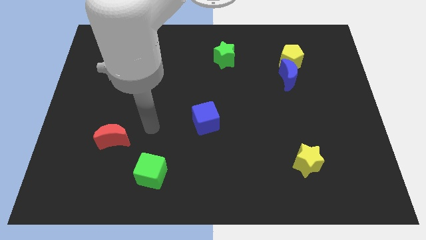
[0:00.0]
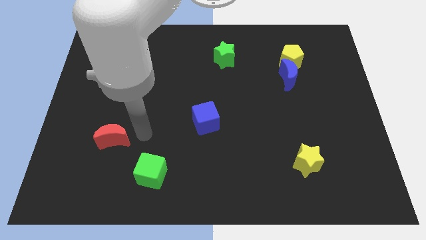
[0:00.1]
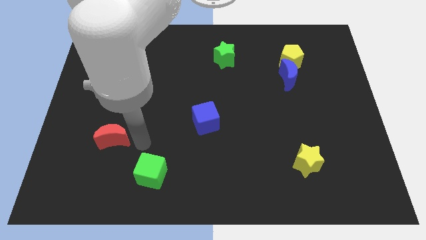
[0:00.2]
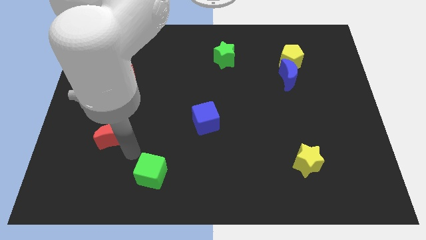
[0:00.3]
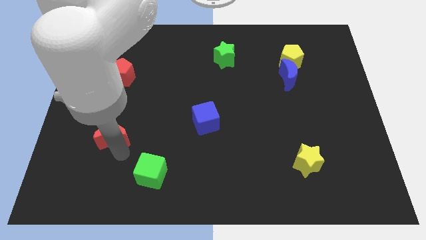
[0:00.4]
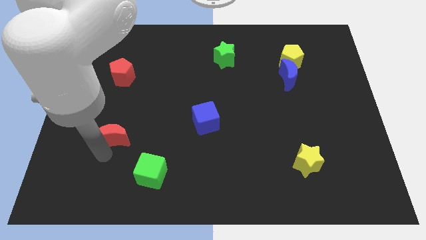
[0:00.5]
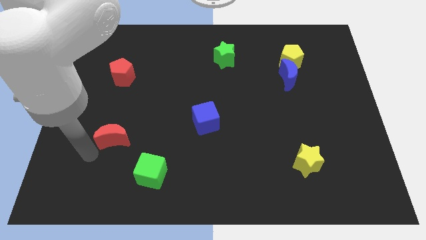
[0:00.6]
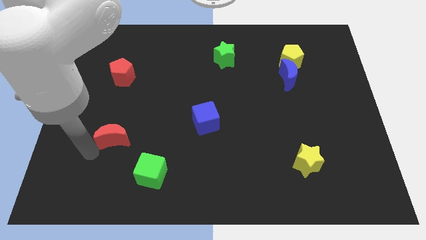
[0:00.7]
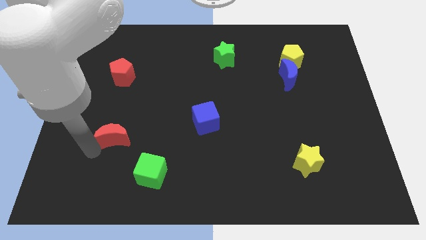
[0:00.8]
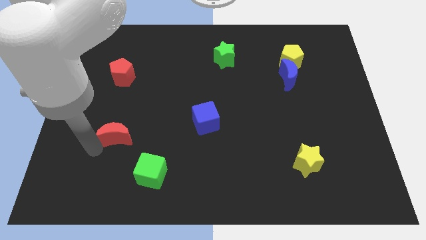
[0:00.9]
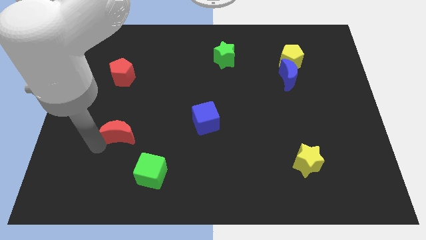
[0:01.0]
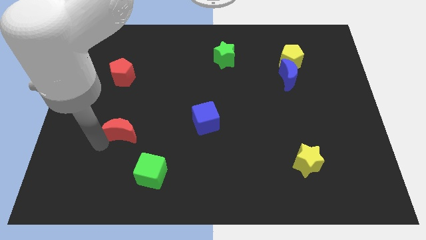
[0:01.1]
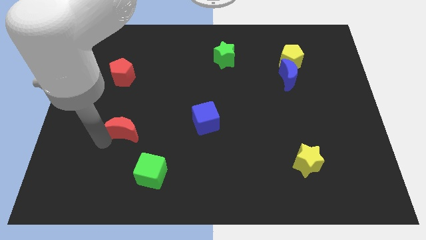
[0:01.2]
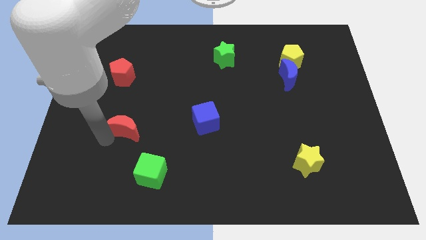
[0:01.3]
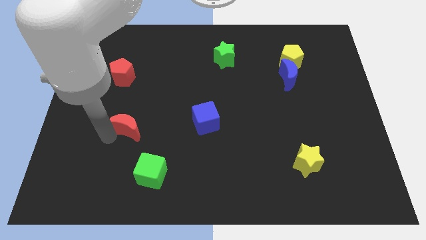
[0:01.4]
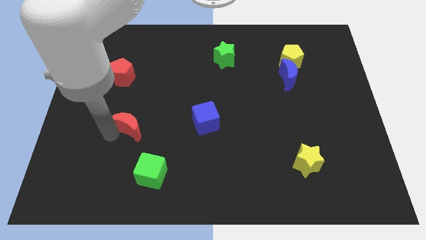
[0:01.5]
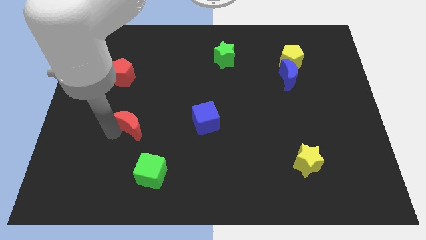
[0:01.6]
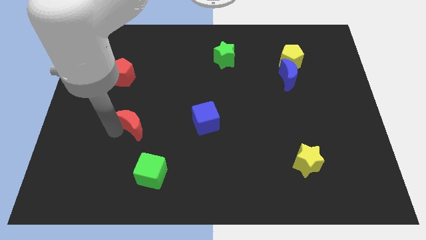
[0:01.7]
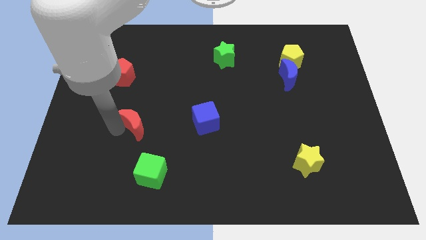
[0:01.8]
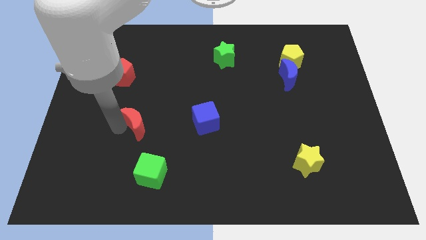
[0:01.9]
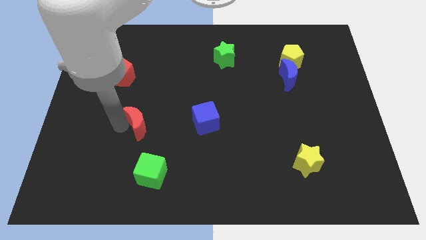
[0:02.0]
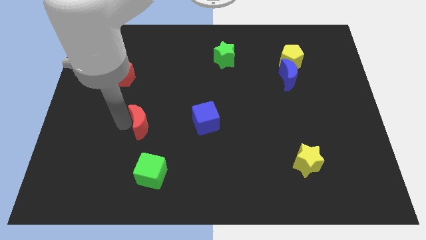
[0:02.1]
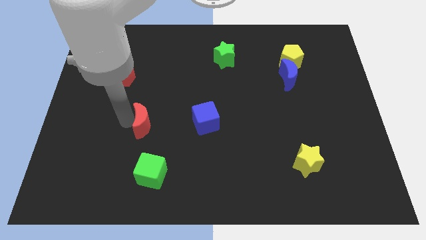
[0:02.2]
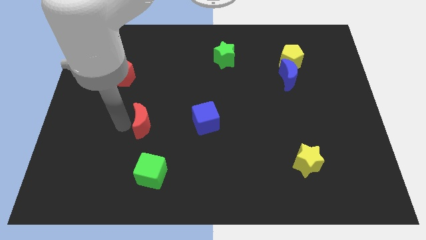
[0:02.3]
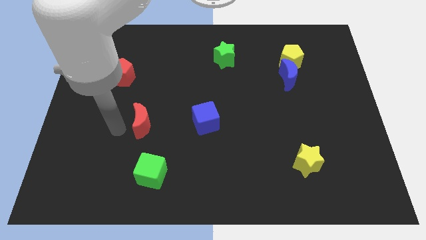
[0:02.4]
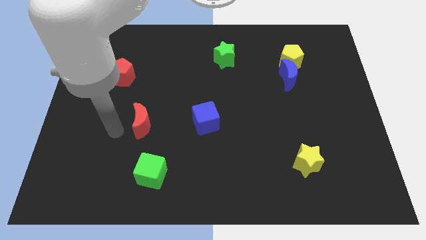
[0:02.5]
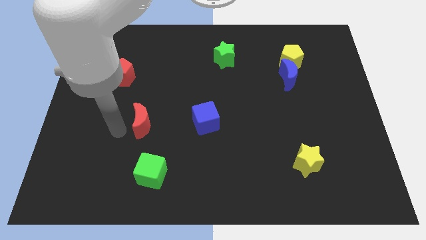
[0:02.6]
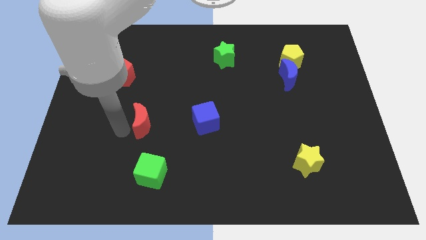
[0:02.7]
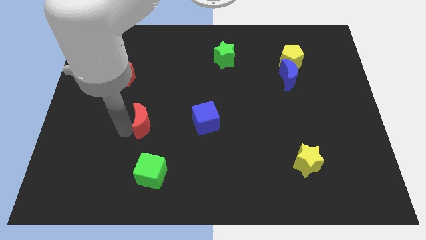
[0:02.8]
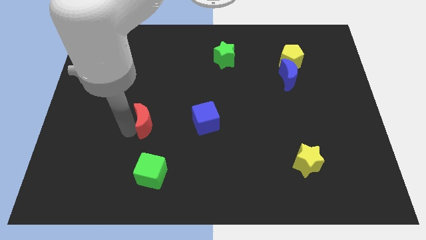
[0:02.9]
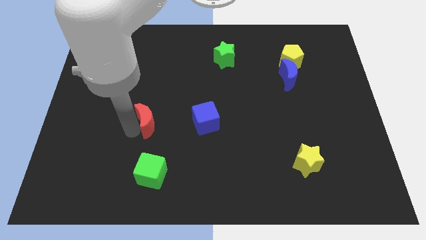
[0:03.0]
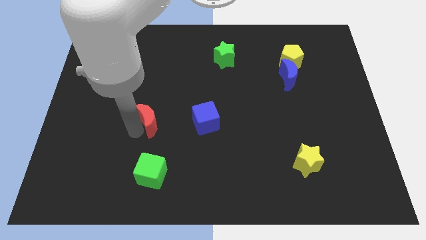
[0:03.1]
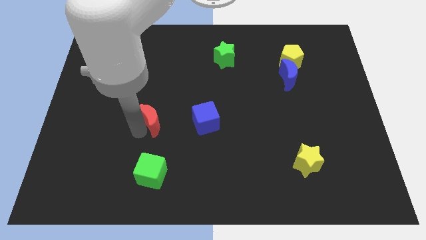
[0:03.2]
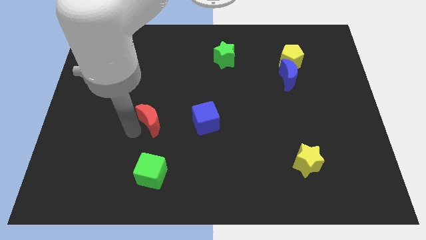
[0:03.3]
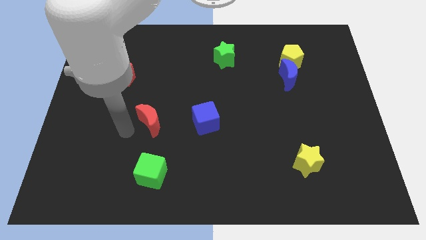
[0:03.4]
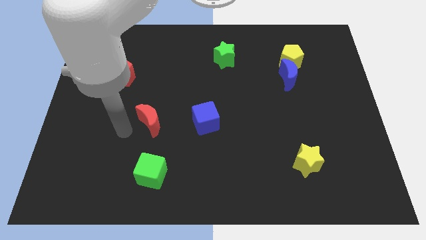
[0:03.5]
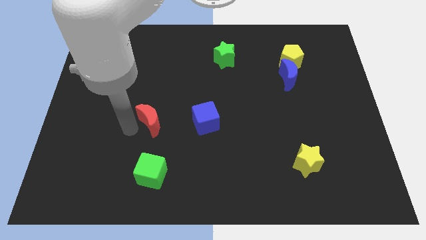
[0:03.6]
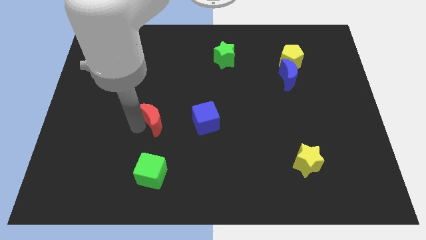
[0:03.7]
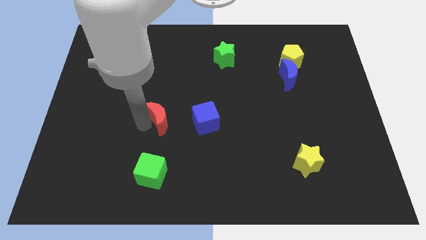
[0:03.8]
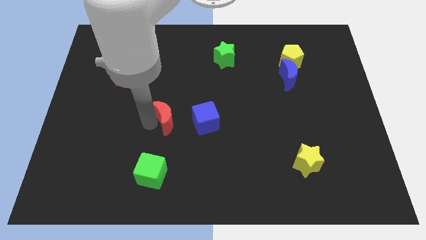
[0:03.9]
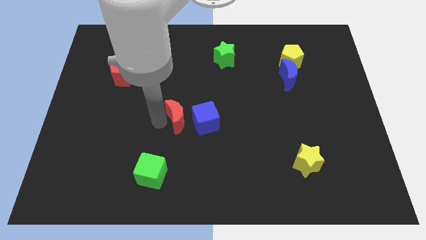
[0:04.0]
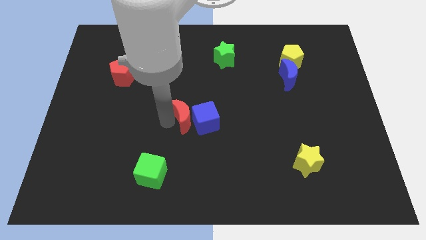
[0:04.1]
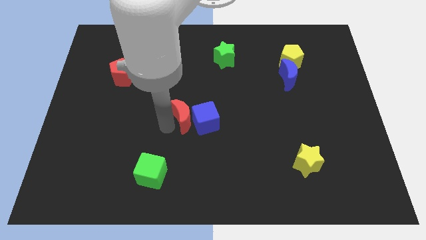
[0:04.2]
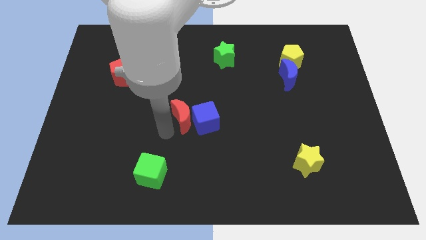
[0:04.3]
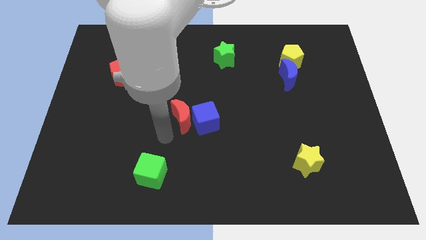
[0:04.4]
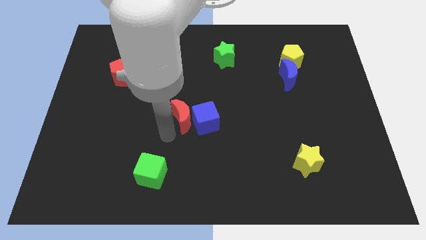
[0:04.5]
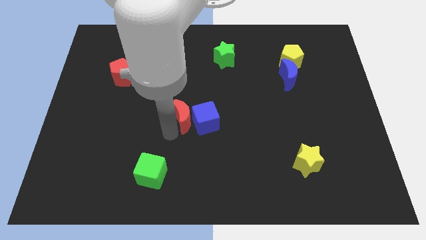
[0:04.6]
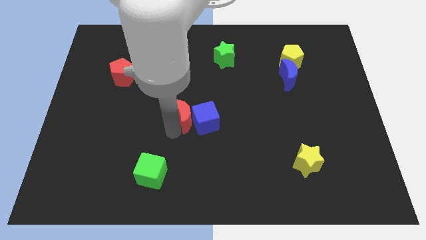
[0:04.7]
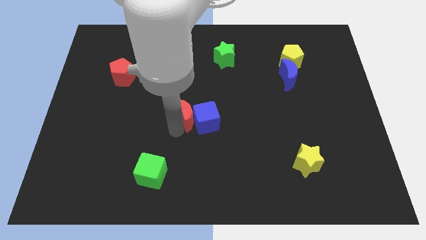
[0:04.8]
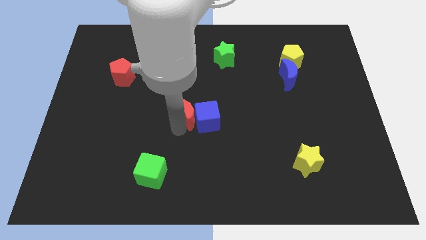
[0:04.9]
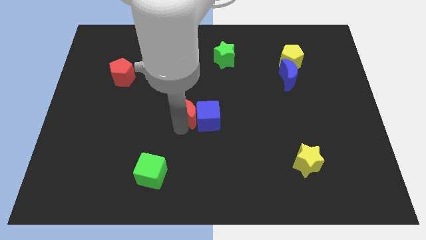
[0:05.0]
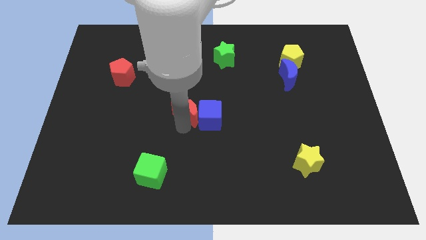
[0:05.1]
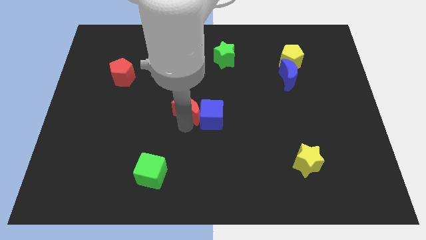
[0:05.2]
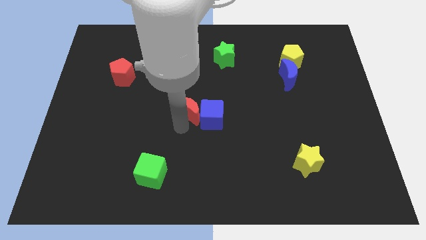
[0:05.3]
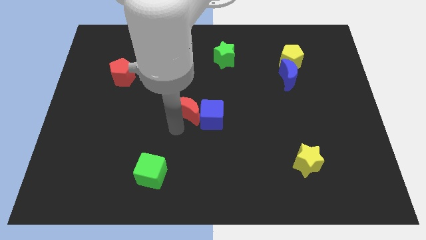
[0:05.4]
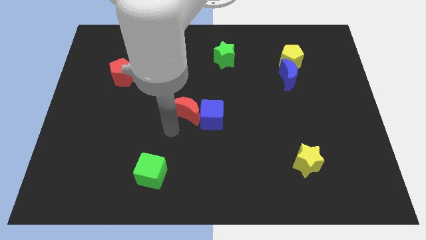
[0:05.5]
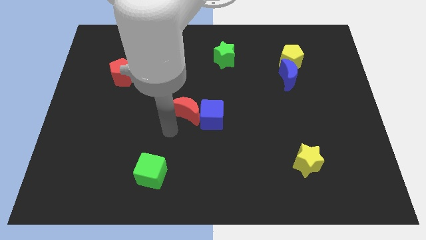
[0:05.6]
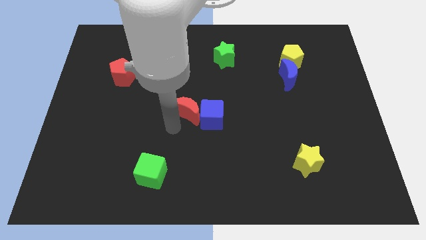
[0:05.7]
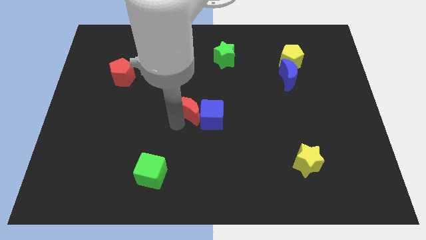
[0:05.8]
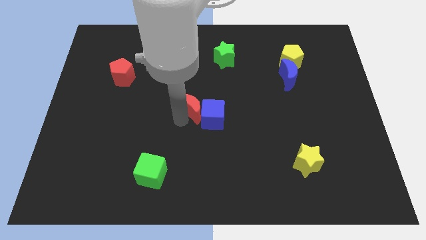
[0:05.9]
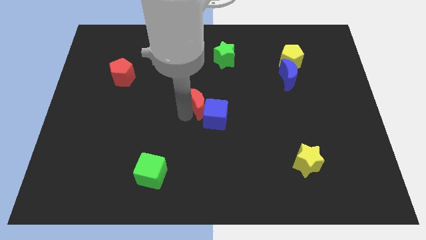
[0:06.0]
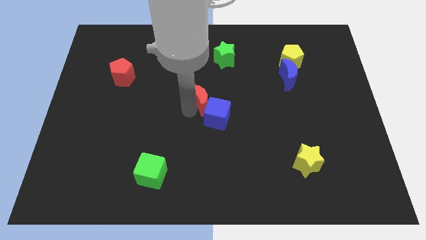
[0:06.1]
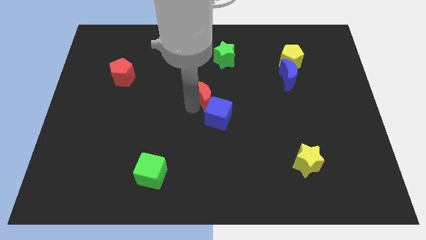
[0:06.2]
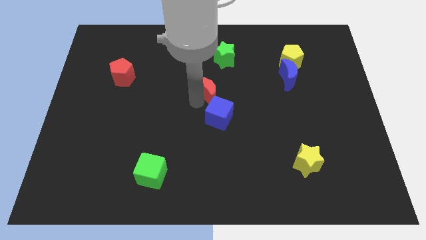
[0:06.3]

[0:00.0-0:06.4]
slide the red moon to the bottom of the green star
